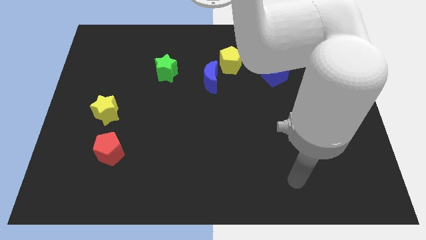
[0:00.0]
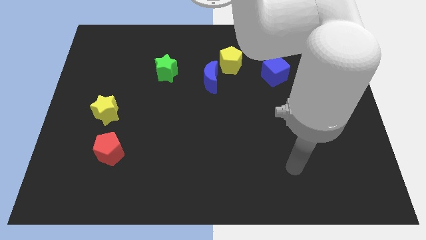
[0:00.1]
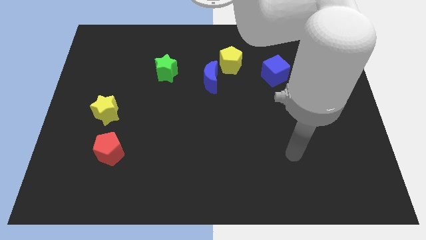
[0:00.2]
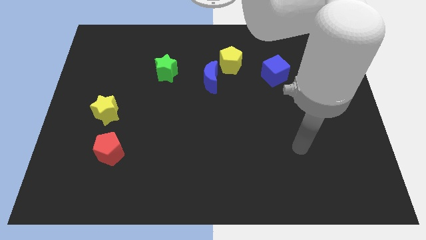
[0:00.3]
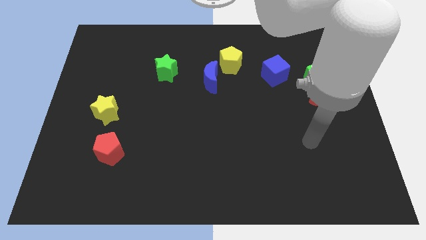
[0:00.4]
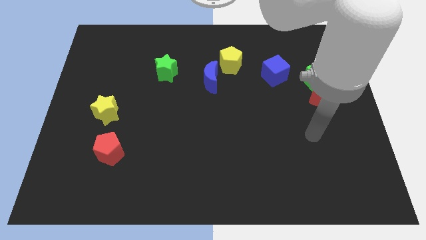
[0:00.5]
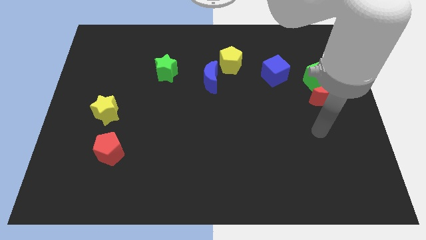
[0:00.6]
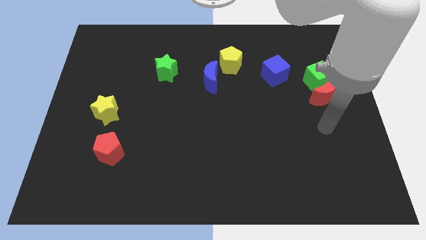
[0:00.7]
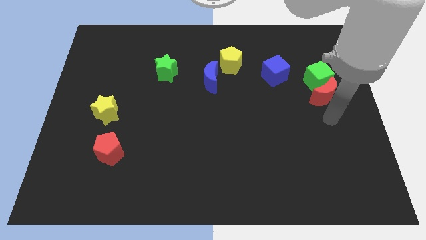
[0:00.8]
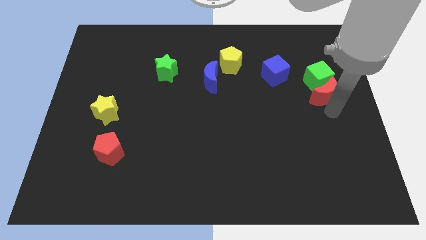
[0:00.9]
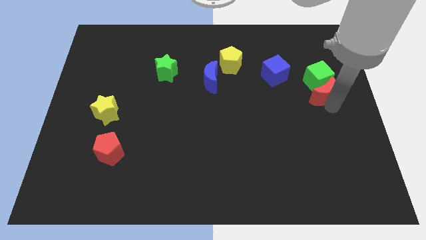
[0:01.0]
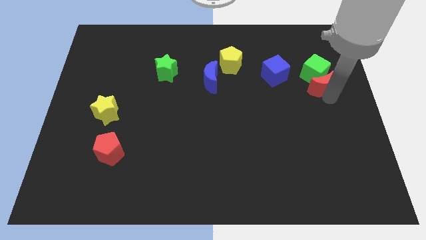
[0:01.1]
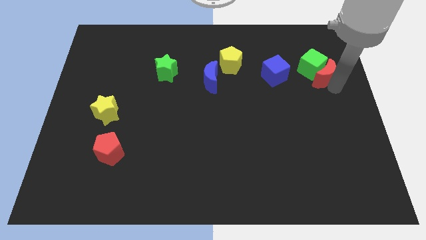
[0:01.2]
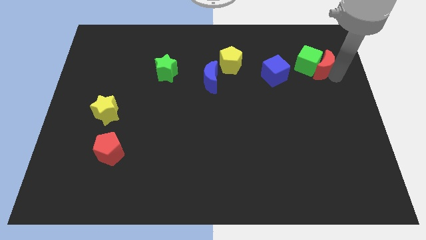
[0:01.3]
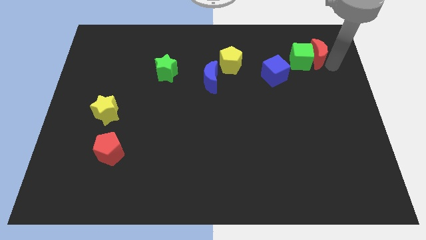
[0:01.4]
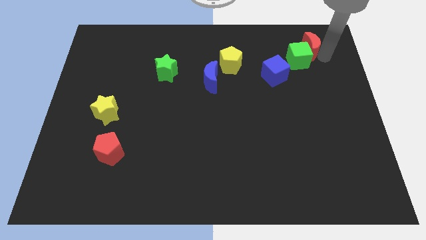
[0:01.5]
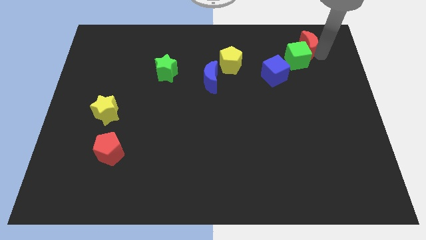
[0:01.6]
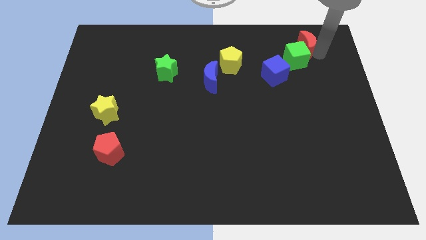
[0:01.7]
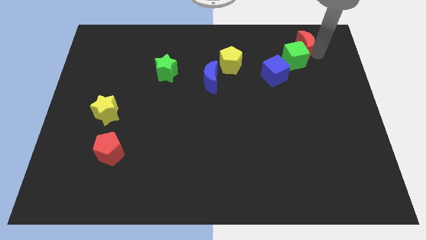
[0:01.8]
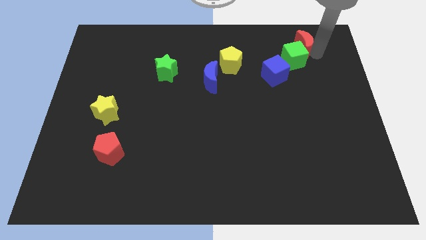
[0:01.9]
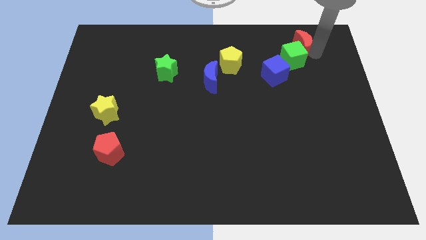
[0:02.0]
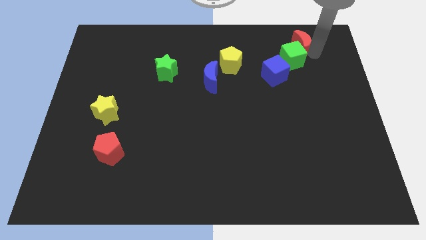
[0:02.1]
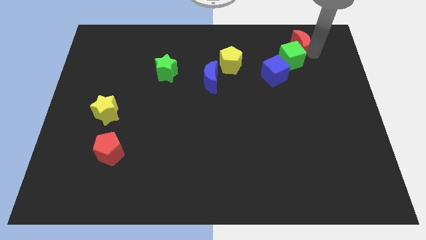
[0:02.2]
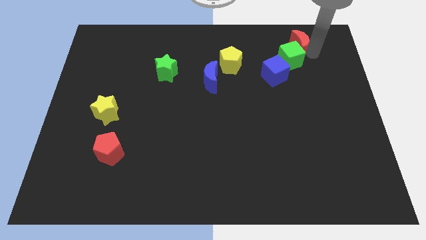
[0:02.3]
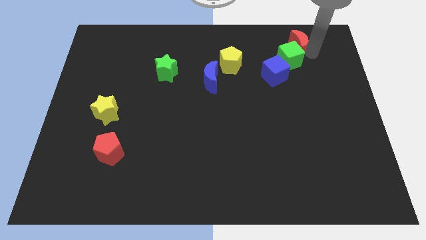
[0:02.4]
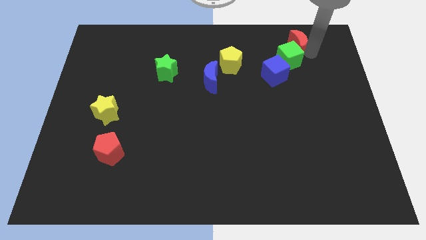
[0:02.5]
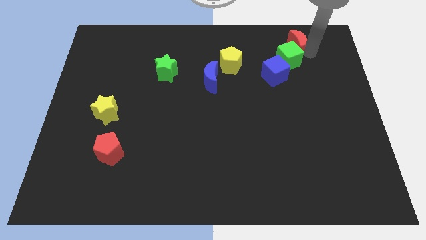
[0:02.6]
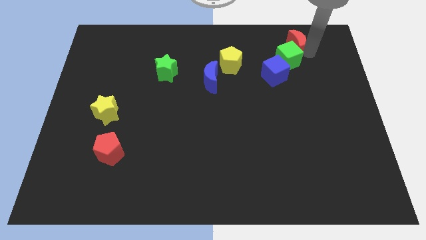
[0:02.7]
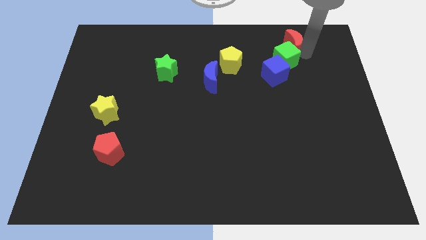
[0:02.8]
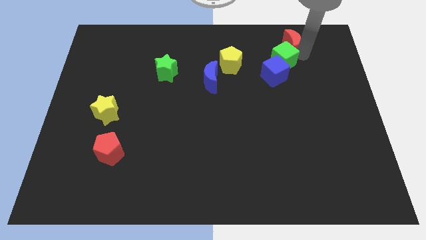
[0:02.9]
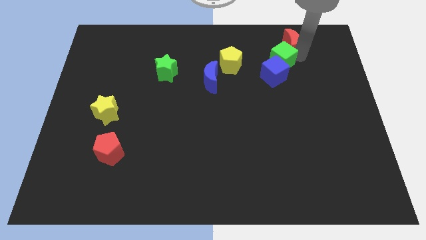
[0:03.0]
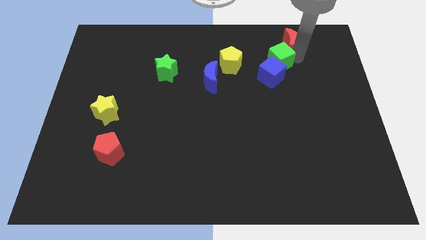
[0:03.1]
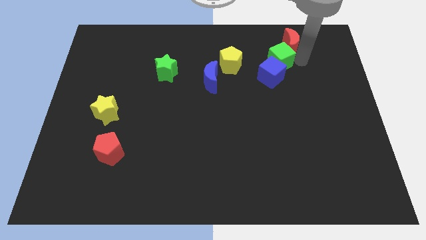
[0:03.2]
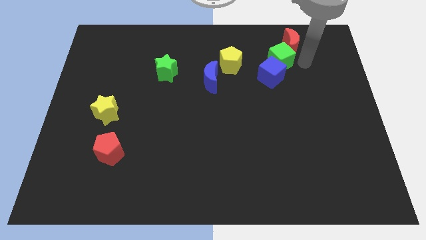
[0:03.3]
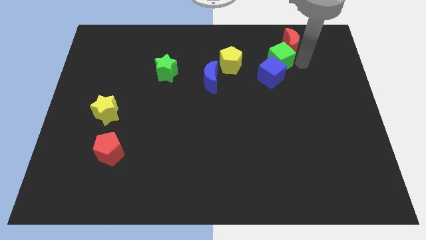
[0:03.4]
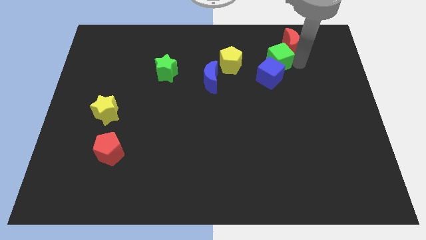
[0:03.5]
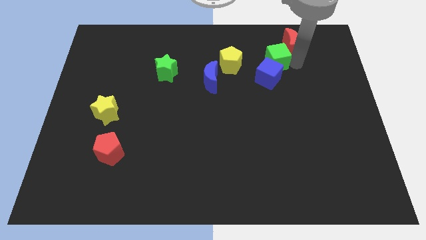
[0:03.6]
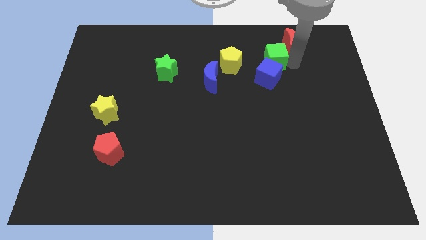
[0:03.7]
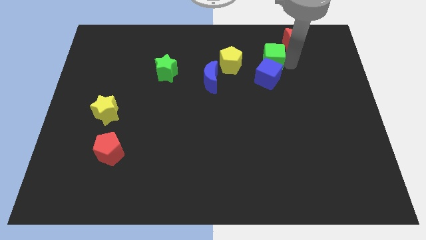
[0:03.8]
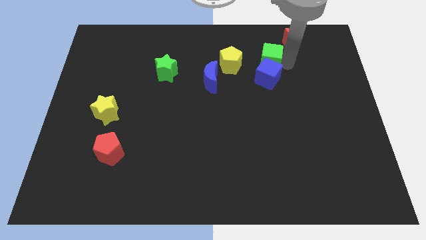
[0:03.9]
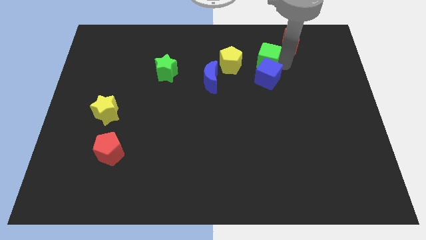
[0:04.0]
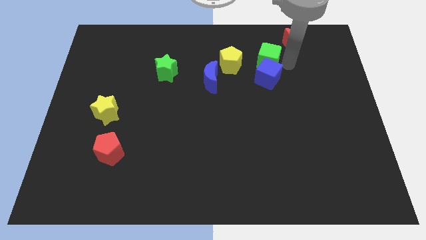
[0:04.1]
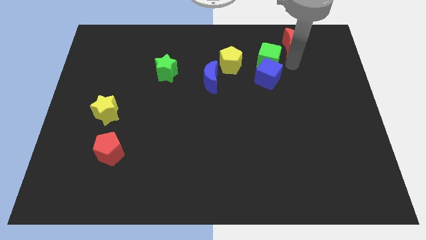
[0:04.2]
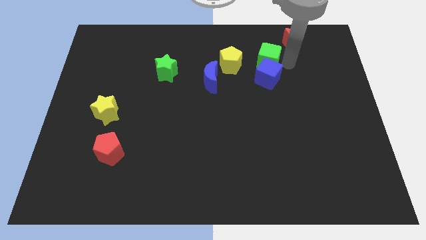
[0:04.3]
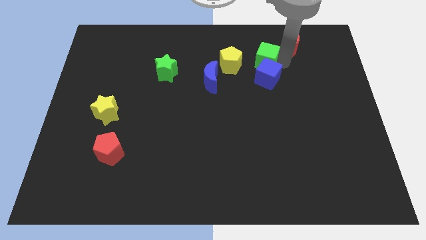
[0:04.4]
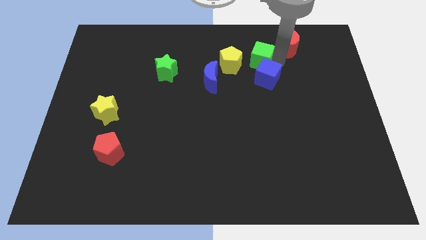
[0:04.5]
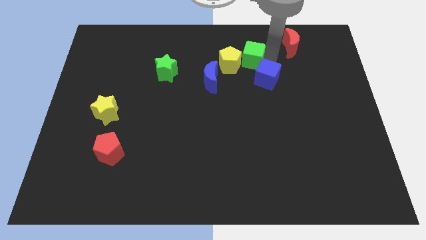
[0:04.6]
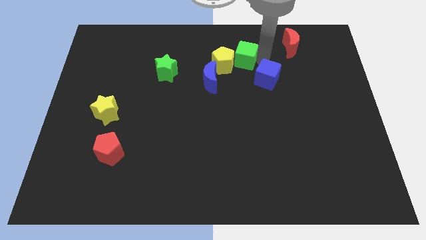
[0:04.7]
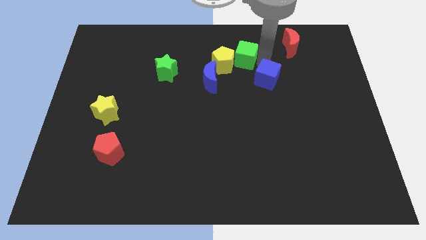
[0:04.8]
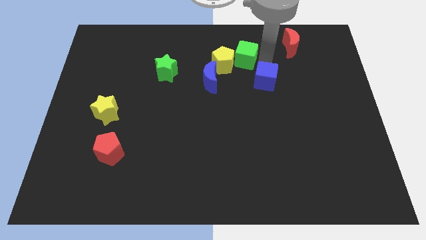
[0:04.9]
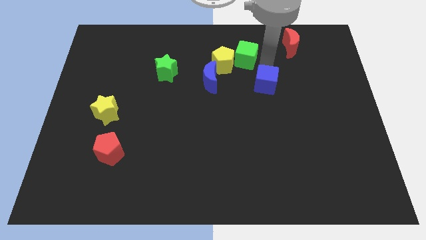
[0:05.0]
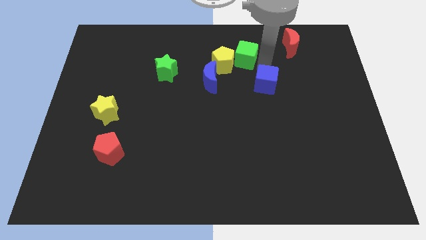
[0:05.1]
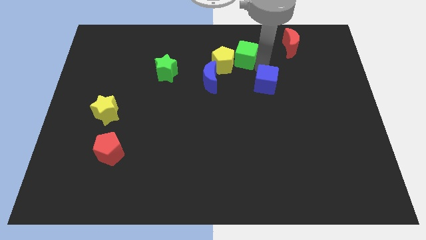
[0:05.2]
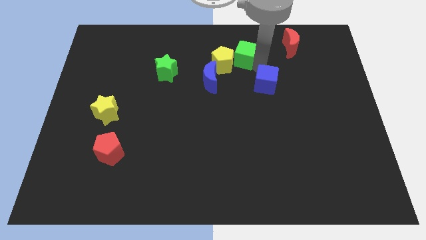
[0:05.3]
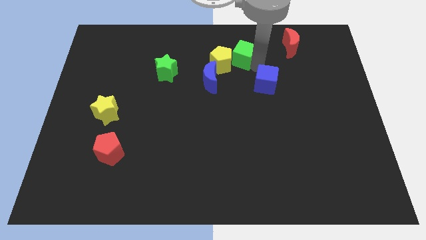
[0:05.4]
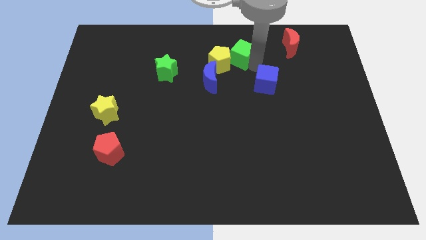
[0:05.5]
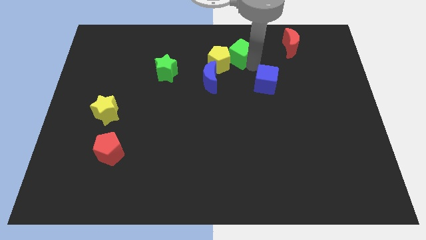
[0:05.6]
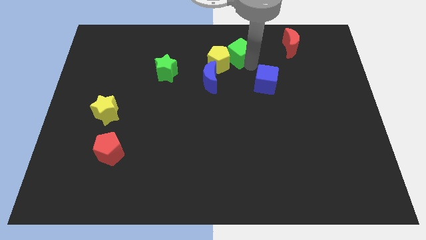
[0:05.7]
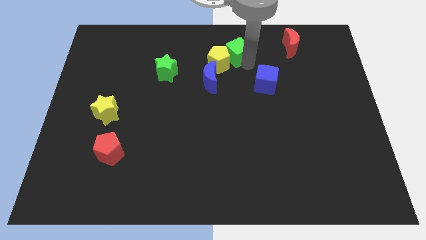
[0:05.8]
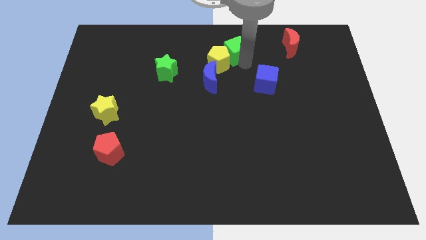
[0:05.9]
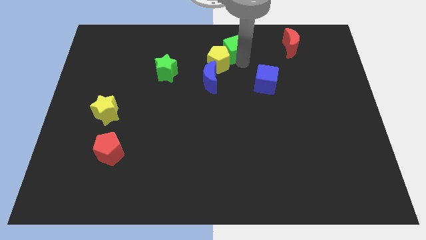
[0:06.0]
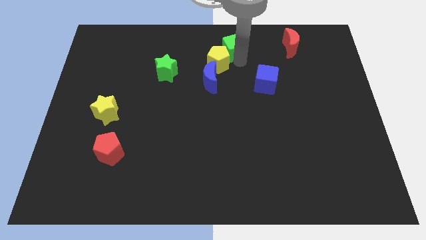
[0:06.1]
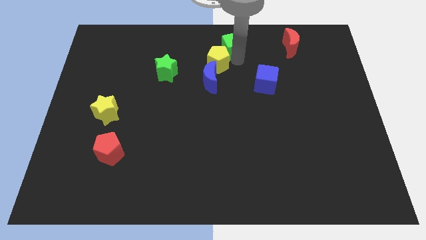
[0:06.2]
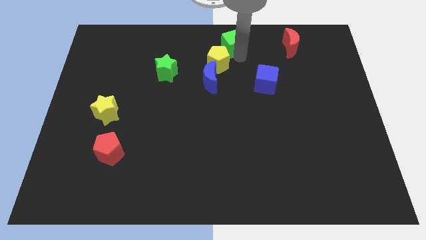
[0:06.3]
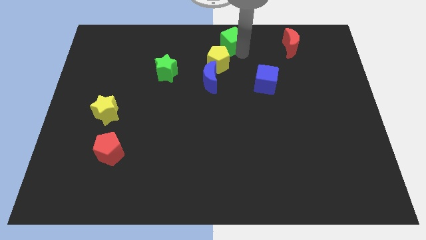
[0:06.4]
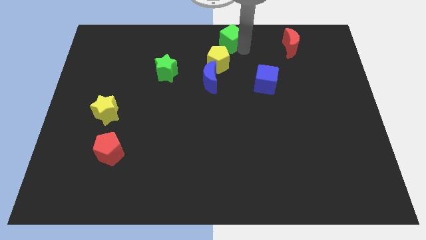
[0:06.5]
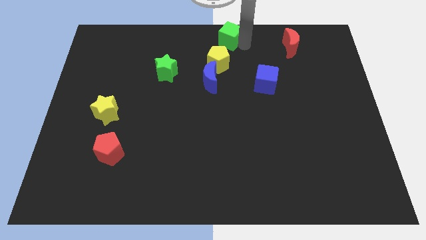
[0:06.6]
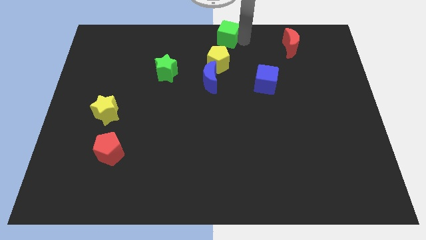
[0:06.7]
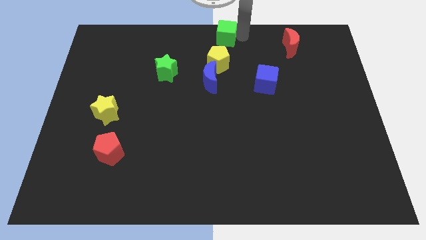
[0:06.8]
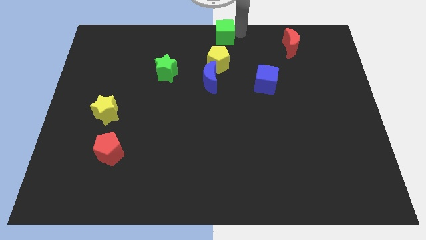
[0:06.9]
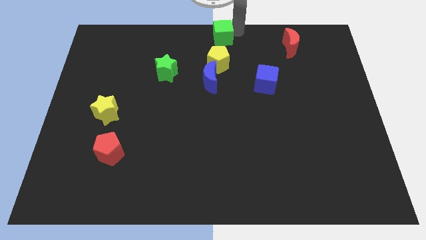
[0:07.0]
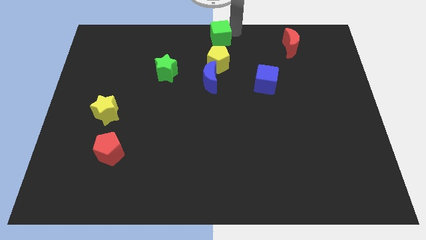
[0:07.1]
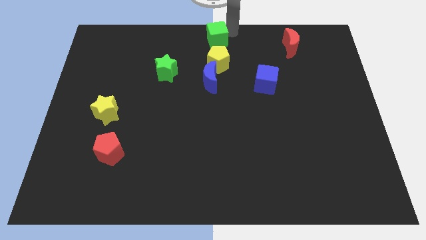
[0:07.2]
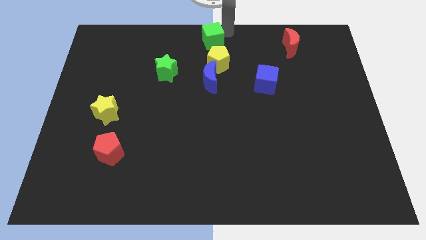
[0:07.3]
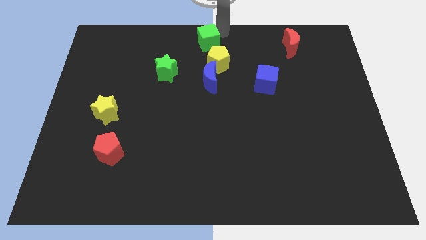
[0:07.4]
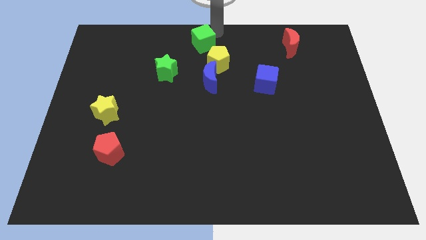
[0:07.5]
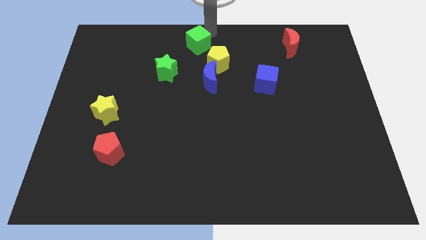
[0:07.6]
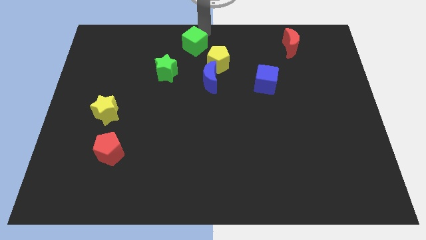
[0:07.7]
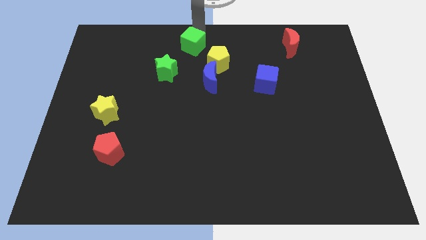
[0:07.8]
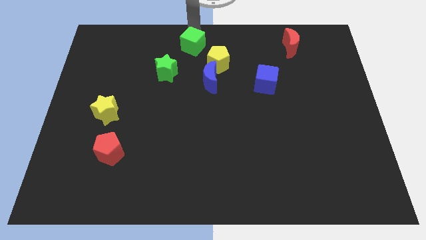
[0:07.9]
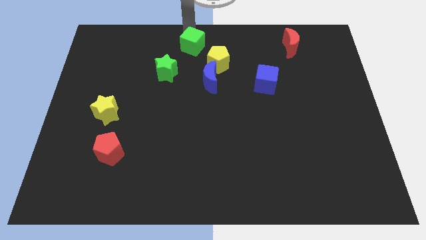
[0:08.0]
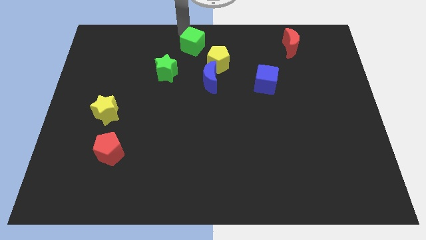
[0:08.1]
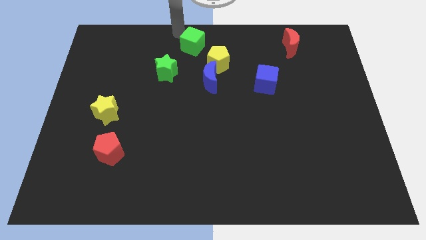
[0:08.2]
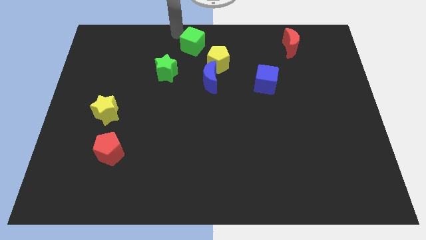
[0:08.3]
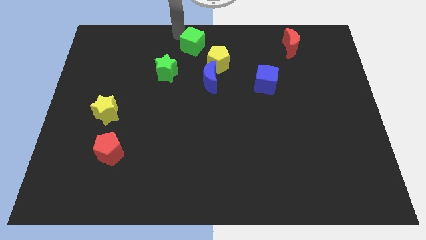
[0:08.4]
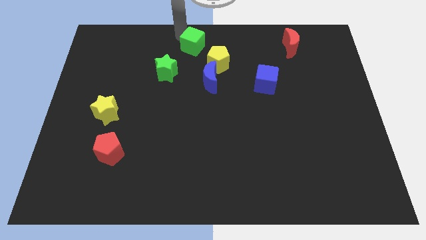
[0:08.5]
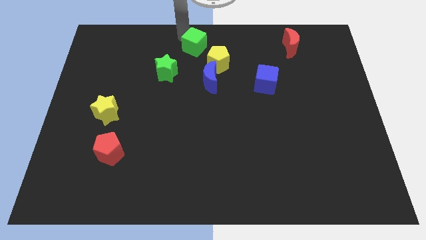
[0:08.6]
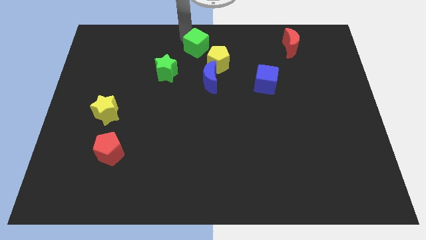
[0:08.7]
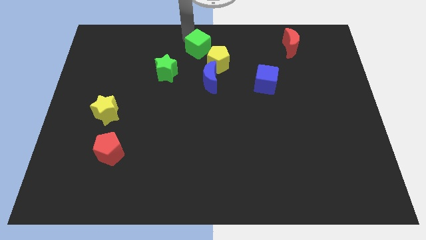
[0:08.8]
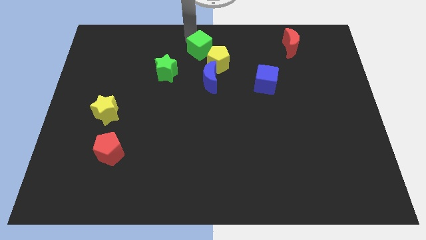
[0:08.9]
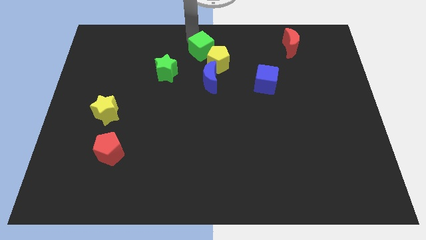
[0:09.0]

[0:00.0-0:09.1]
move the green cube just left of the yellow pentagon
